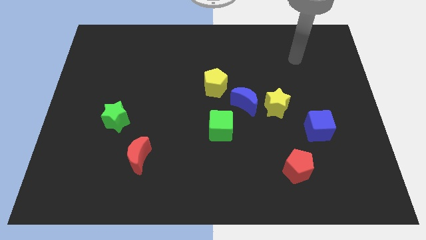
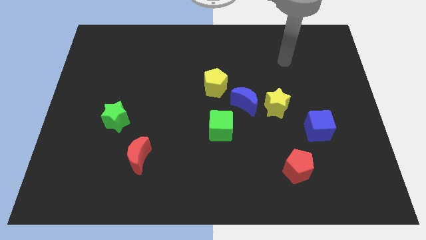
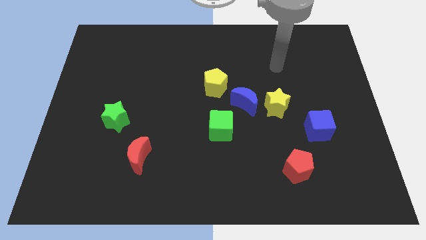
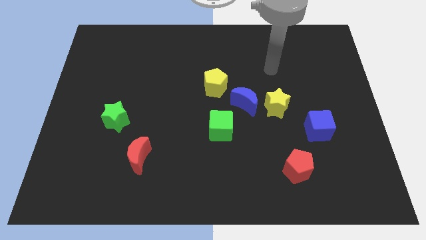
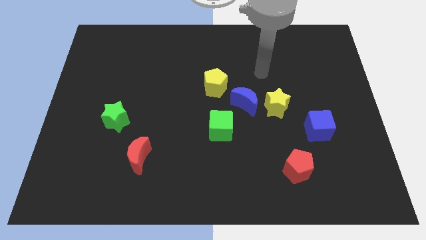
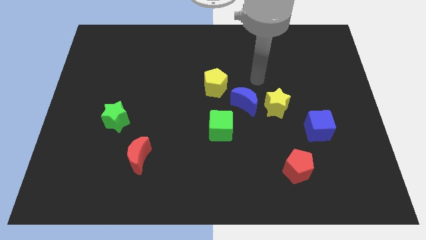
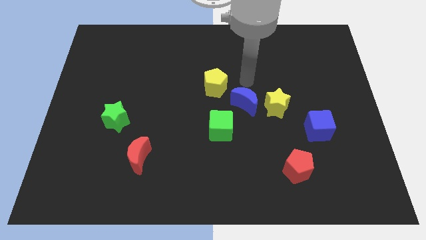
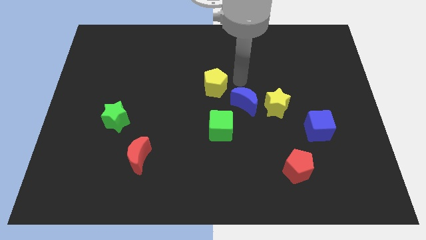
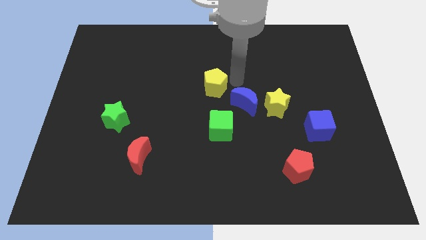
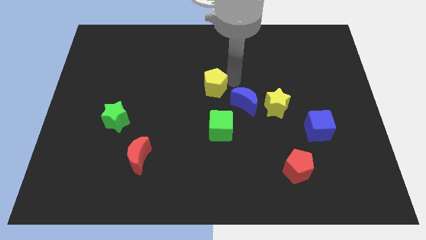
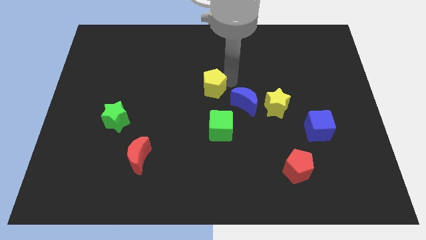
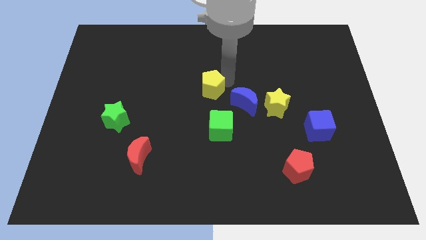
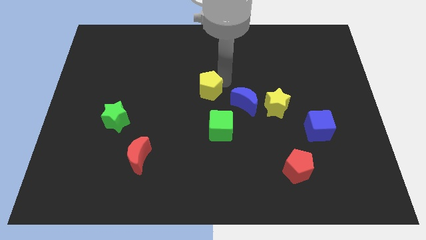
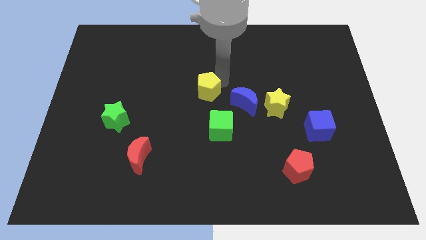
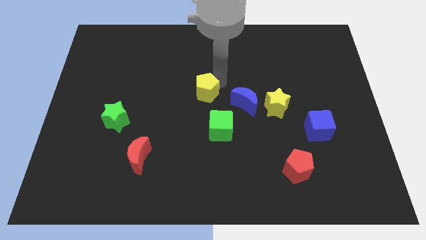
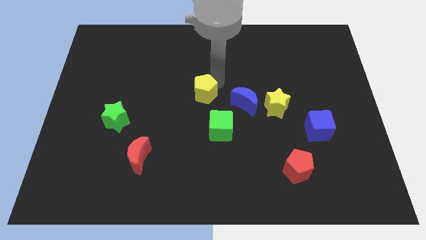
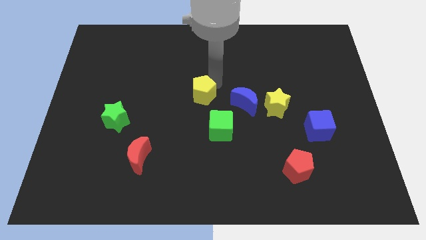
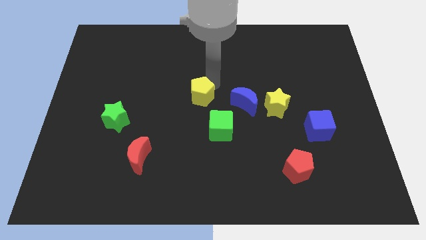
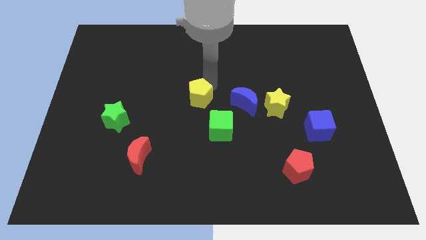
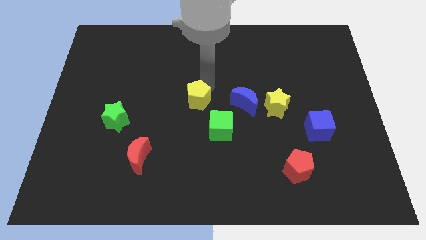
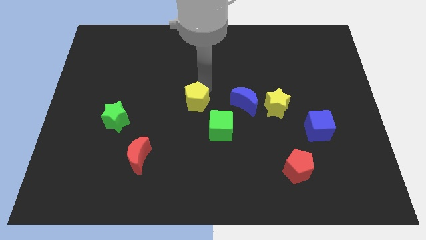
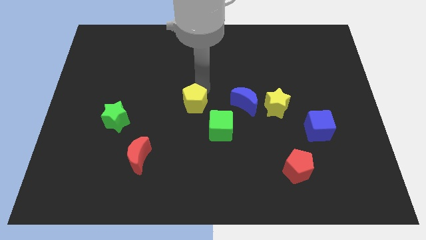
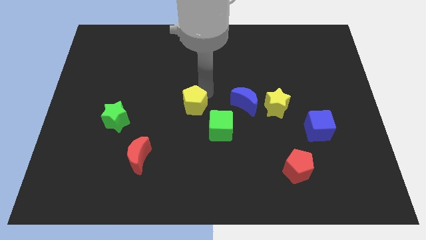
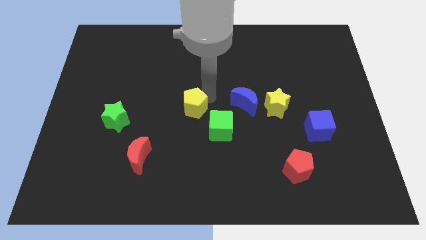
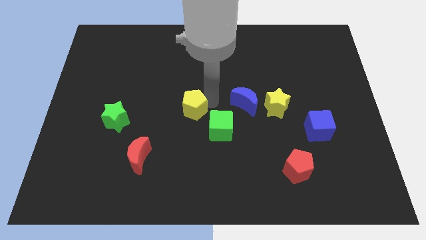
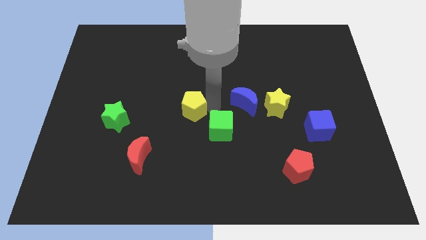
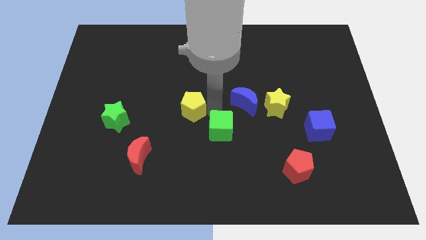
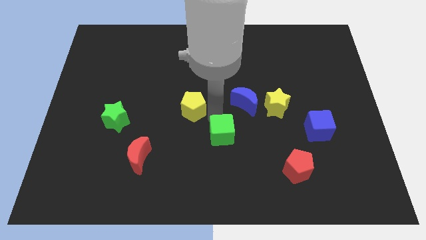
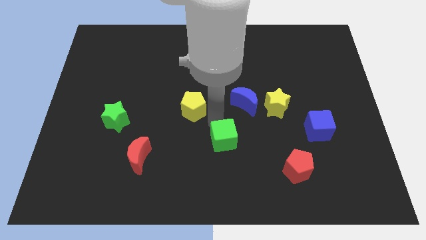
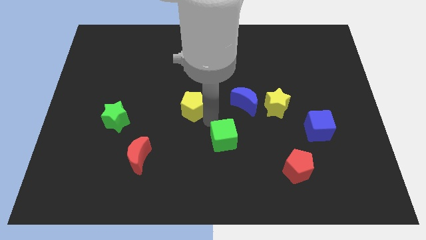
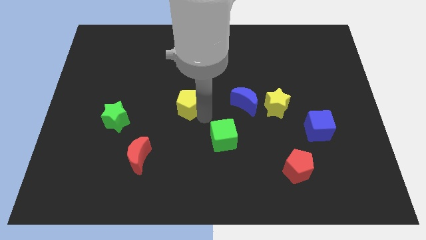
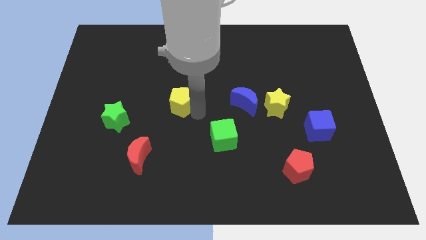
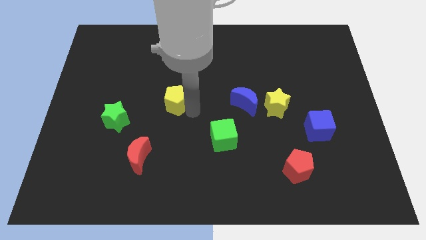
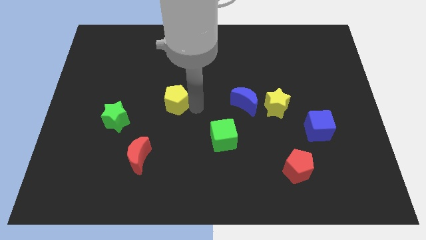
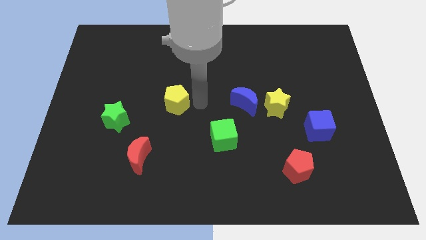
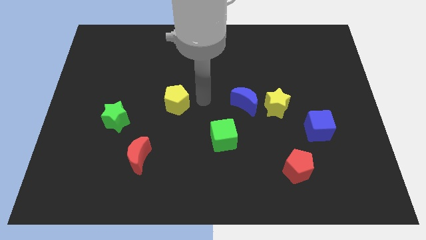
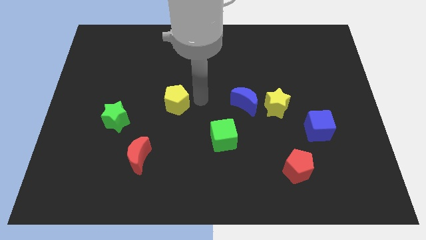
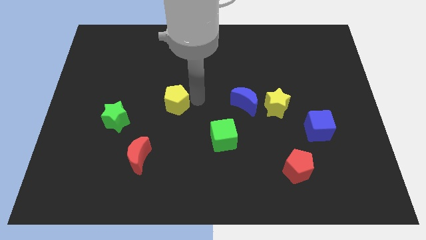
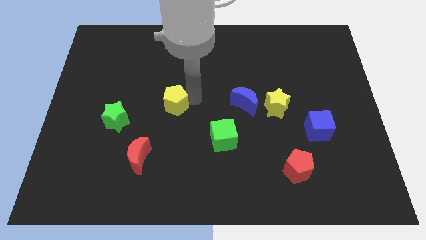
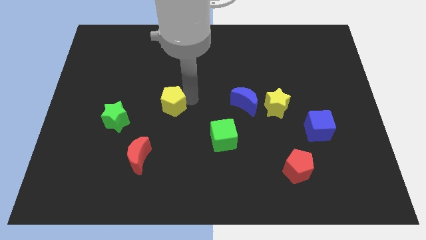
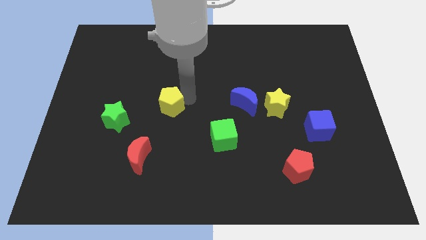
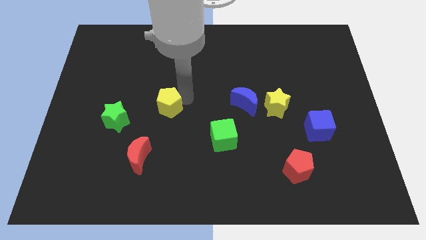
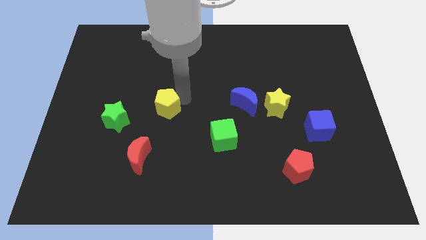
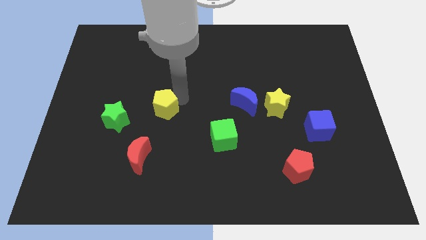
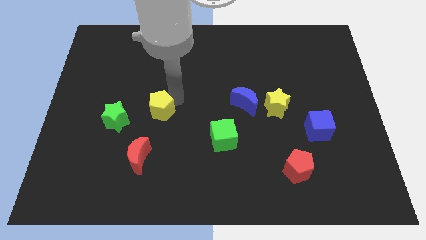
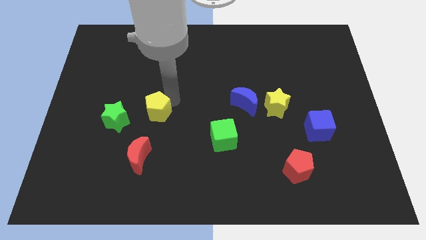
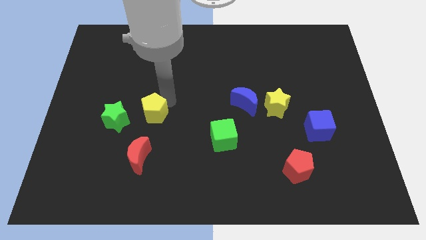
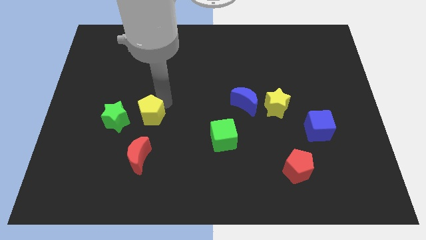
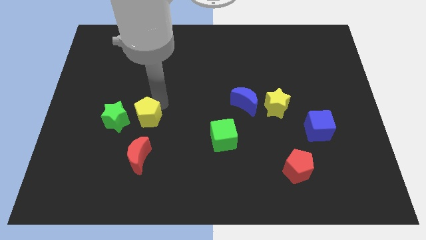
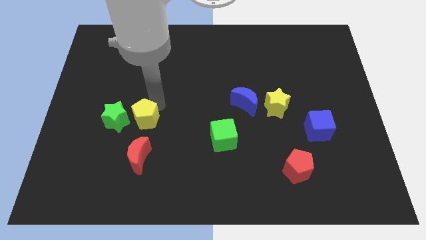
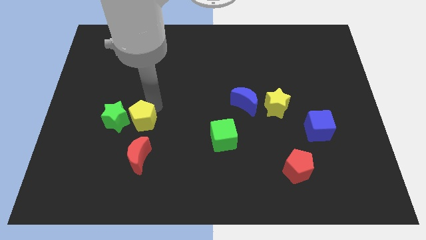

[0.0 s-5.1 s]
move the yellow pentagon next to the green star

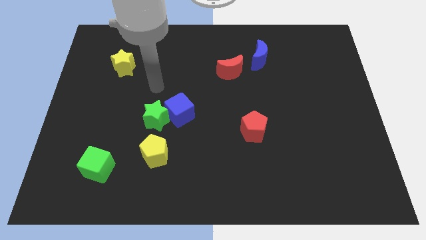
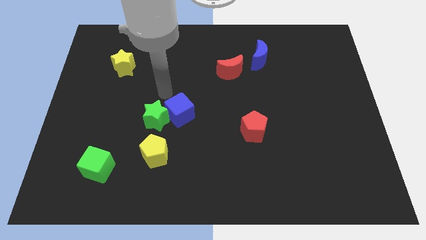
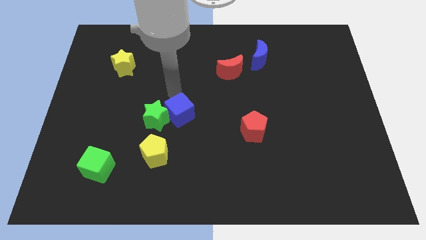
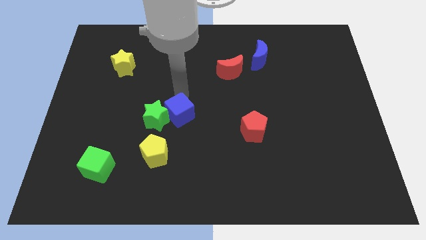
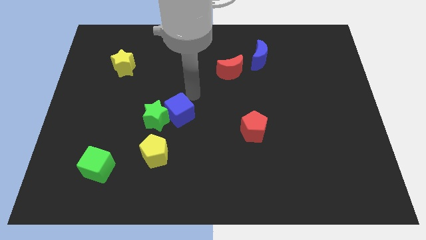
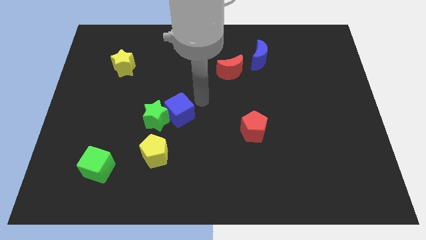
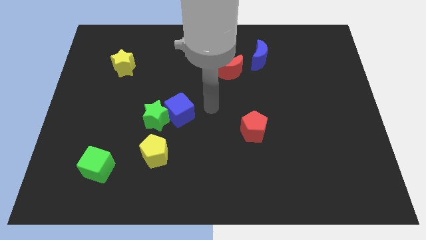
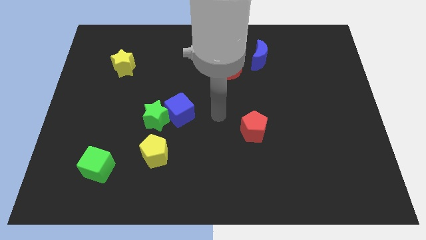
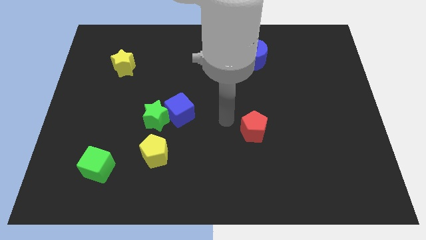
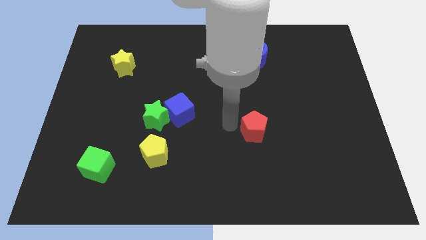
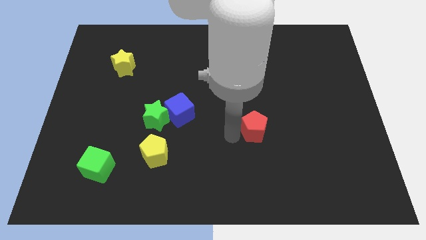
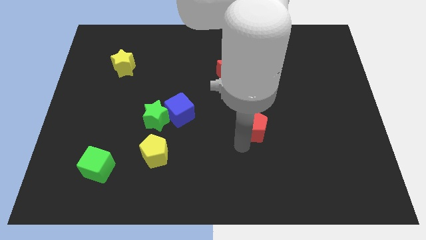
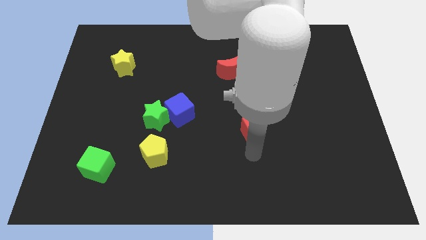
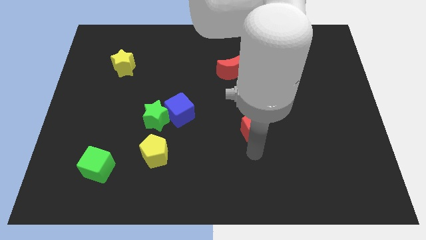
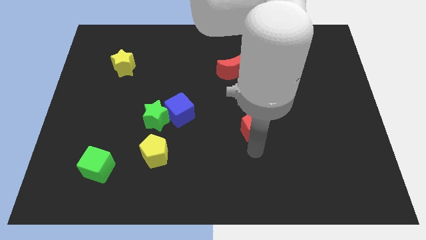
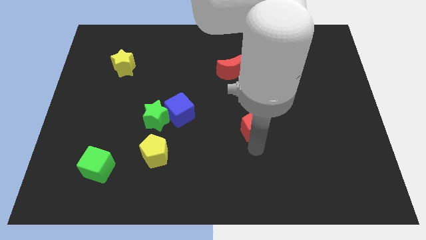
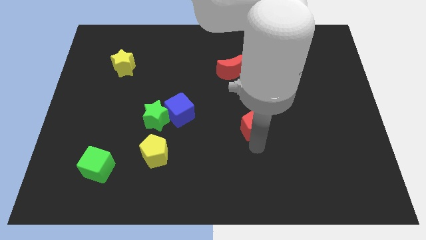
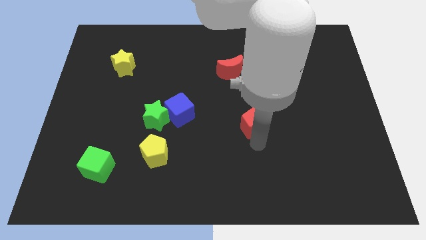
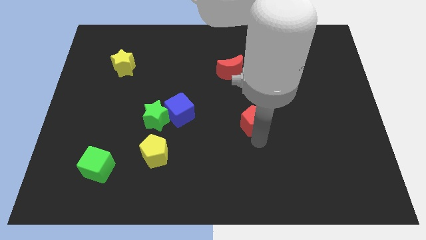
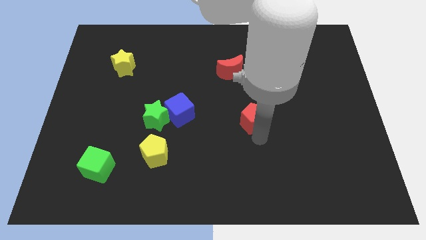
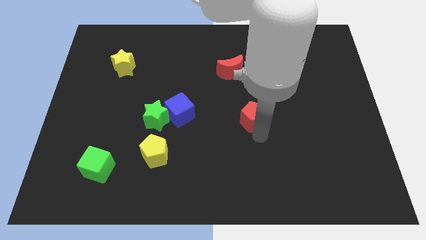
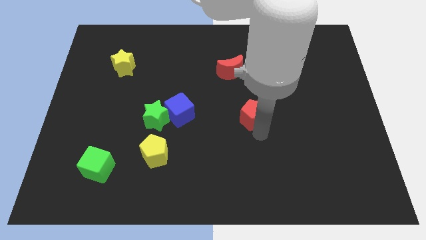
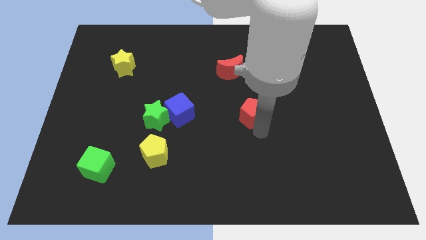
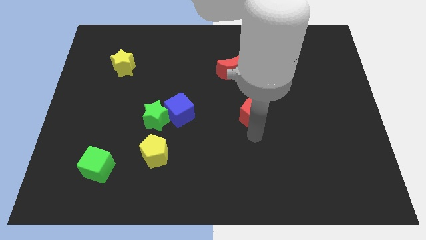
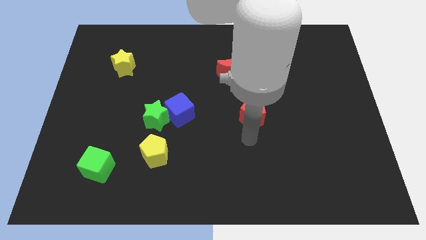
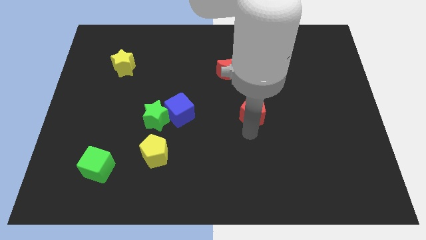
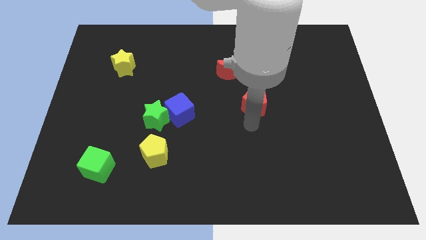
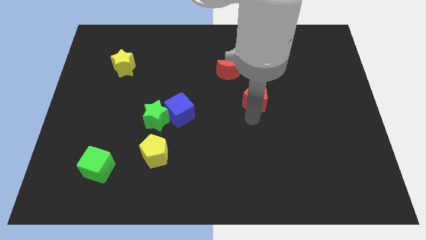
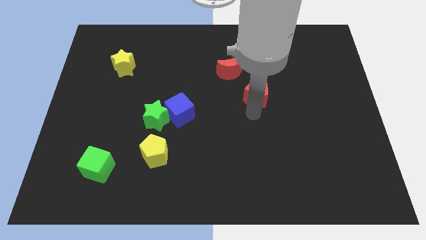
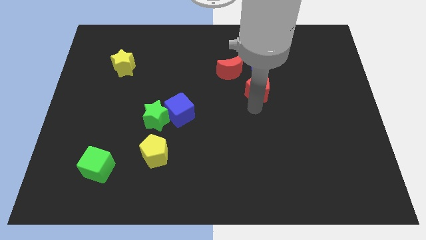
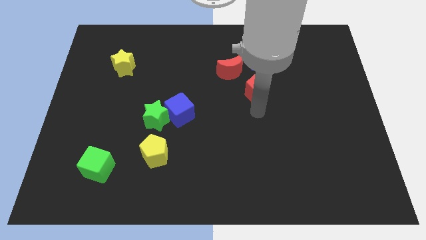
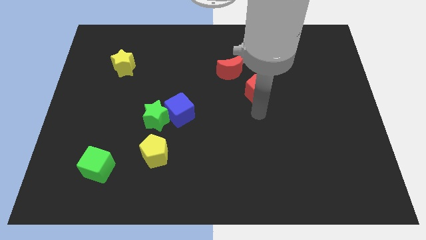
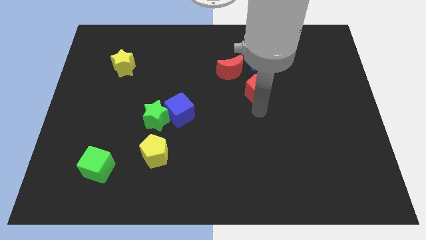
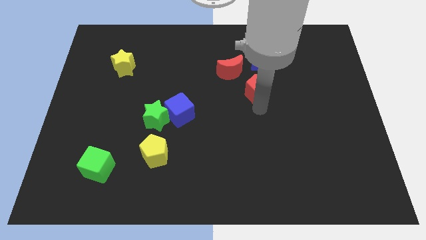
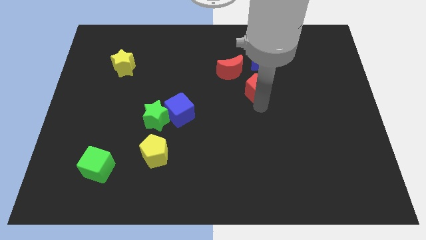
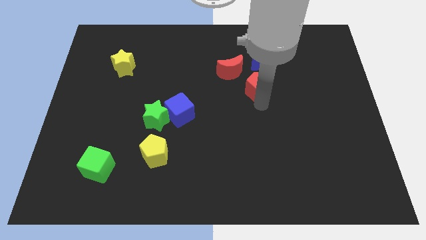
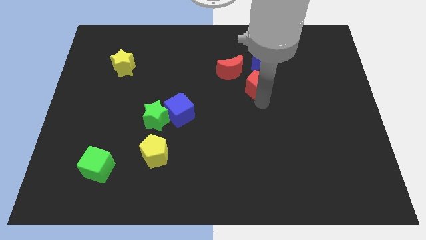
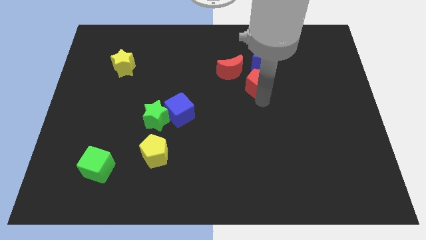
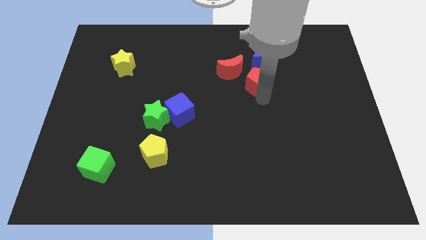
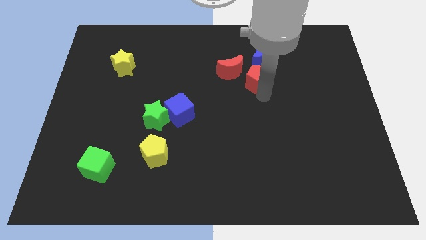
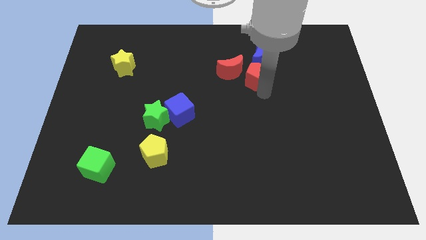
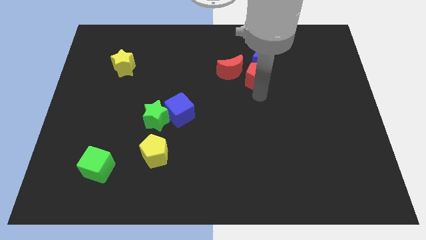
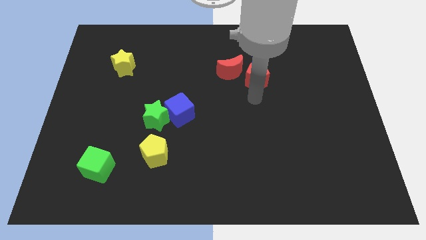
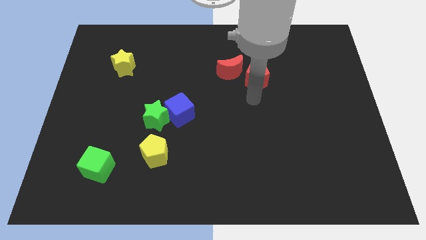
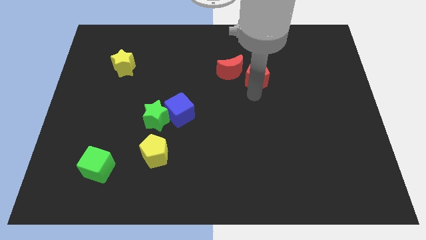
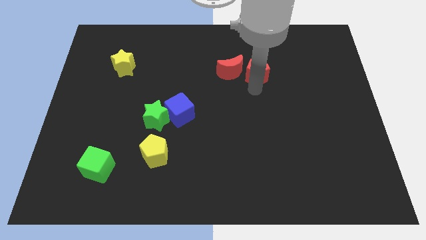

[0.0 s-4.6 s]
put the red pentagon to the blue moon
